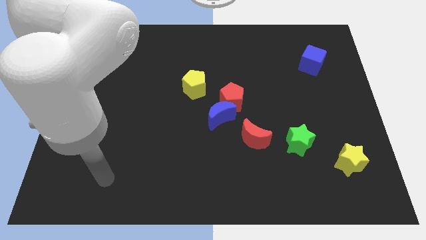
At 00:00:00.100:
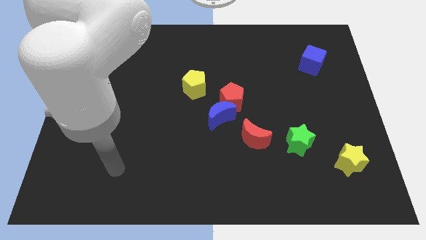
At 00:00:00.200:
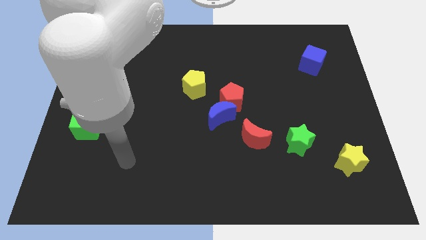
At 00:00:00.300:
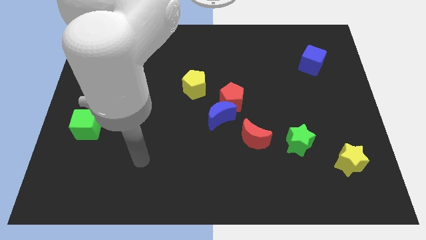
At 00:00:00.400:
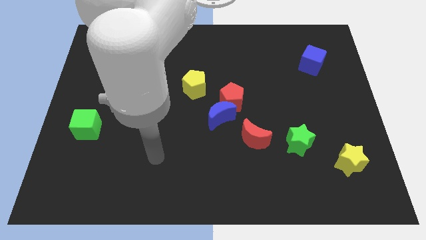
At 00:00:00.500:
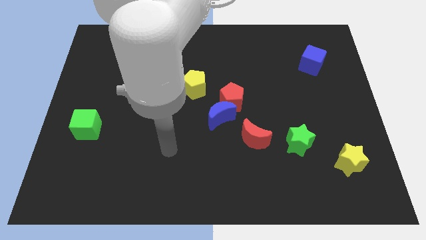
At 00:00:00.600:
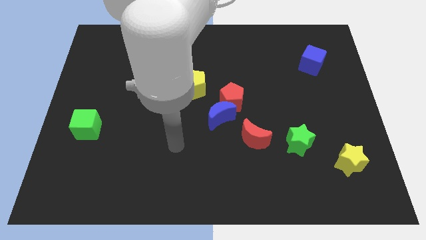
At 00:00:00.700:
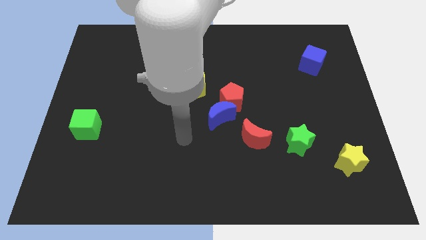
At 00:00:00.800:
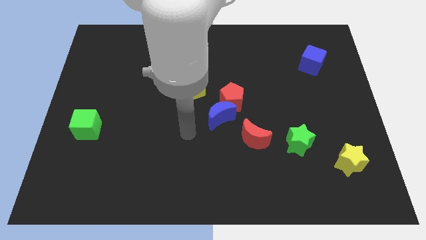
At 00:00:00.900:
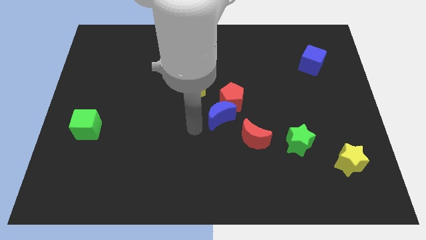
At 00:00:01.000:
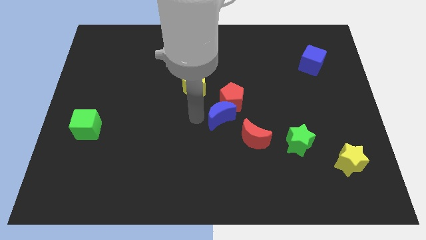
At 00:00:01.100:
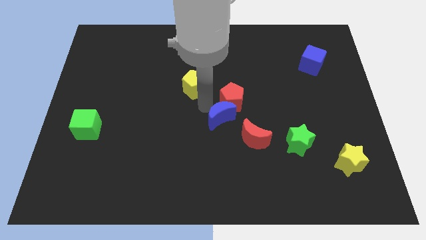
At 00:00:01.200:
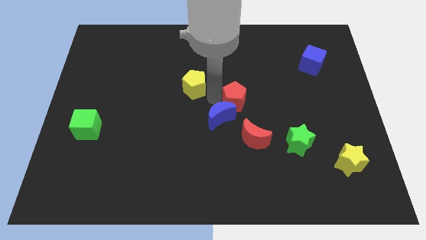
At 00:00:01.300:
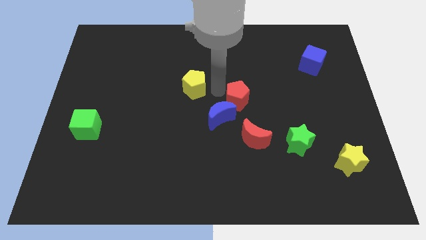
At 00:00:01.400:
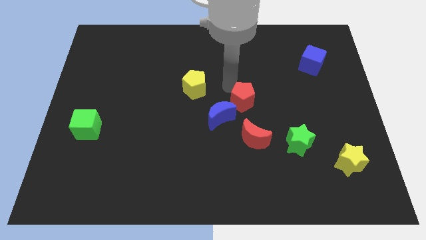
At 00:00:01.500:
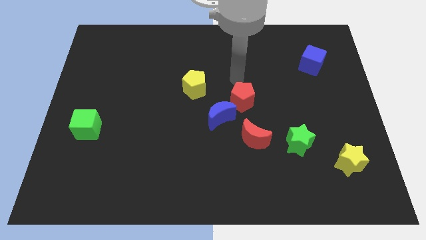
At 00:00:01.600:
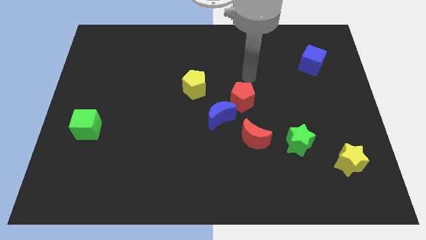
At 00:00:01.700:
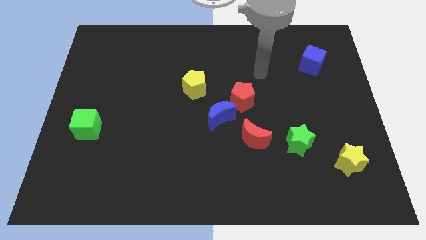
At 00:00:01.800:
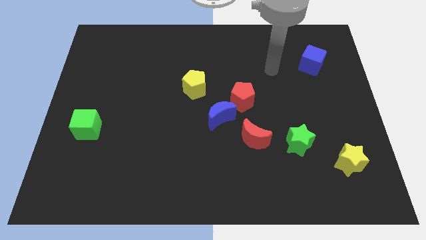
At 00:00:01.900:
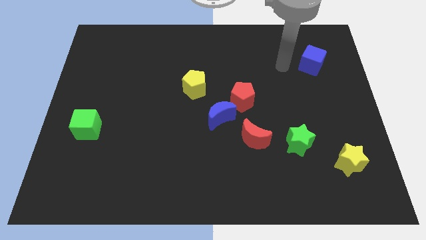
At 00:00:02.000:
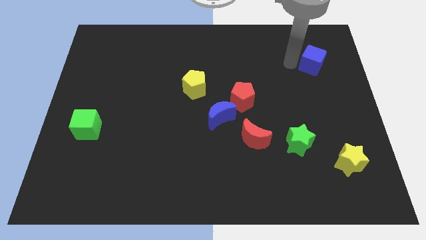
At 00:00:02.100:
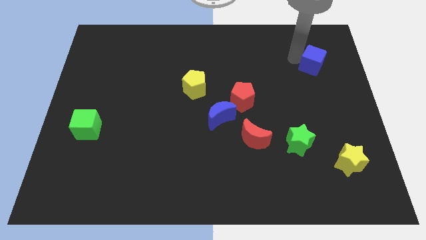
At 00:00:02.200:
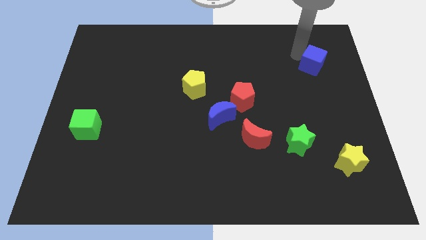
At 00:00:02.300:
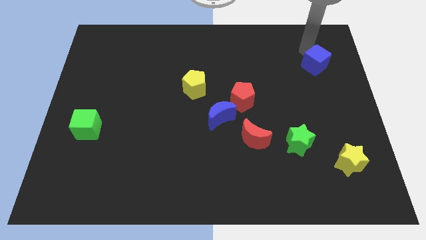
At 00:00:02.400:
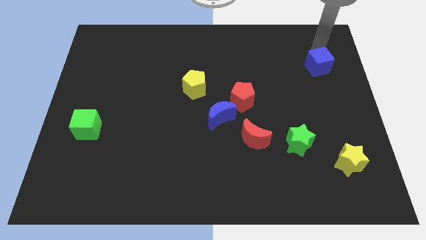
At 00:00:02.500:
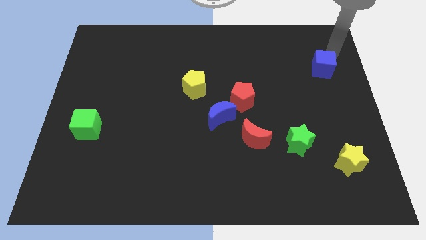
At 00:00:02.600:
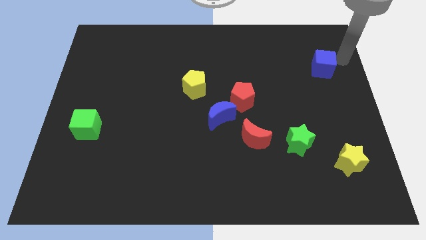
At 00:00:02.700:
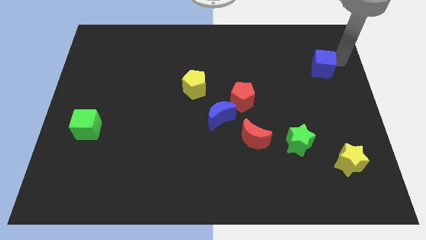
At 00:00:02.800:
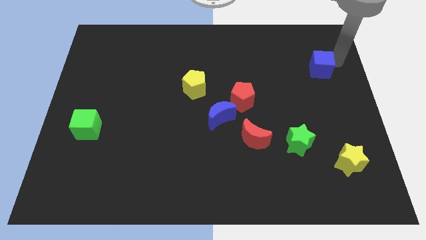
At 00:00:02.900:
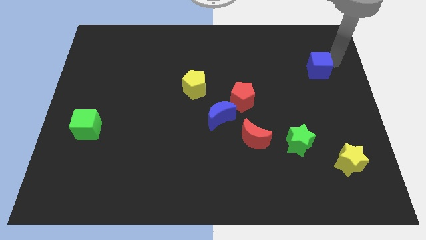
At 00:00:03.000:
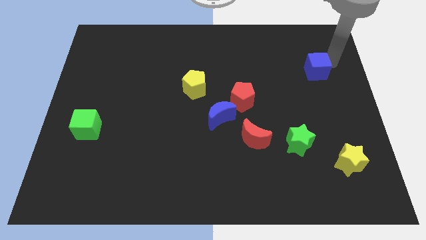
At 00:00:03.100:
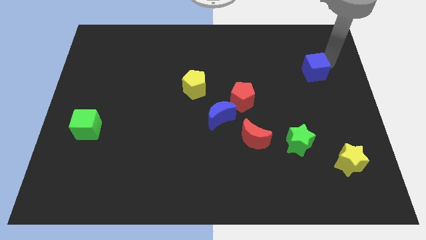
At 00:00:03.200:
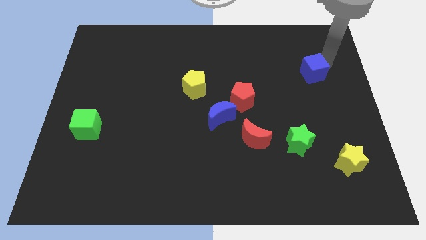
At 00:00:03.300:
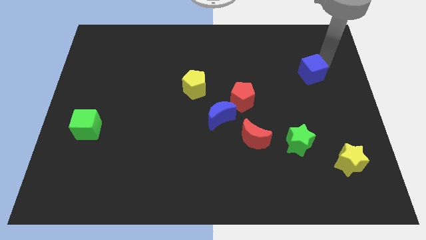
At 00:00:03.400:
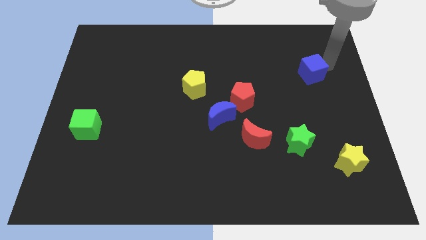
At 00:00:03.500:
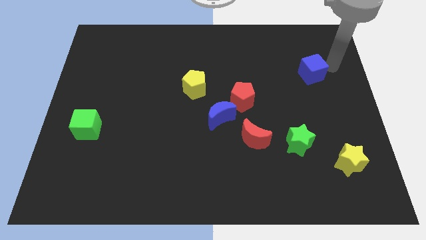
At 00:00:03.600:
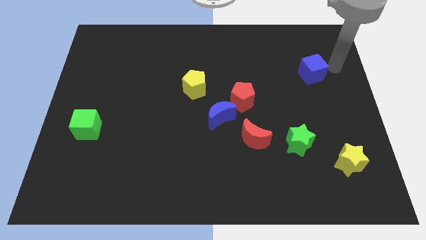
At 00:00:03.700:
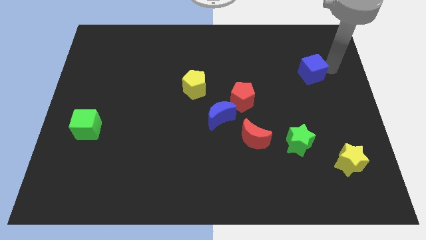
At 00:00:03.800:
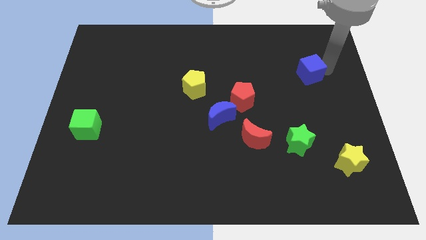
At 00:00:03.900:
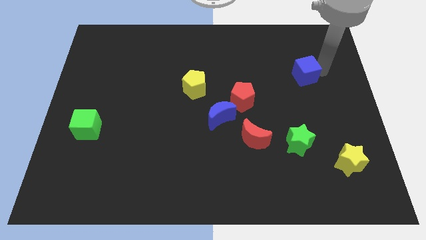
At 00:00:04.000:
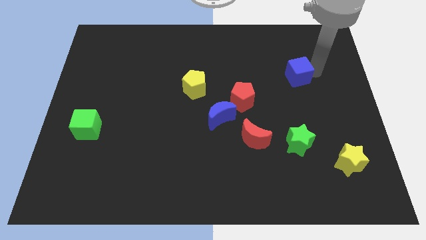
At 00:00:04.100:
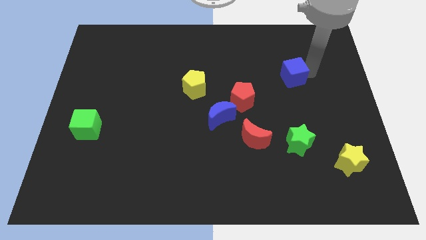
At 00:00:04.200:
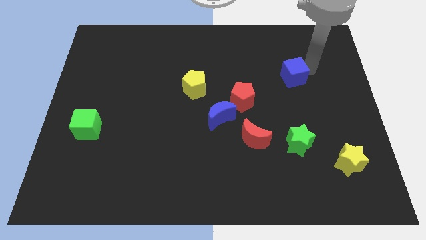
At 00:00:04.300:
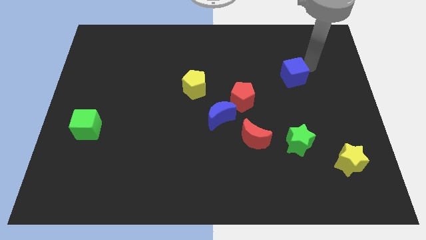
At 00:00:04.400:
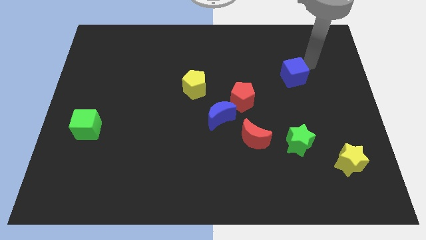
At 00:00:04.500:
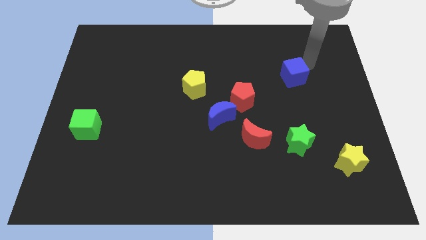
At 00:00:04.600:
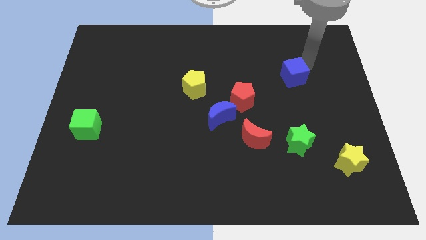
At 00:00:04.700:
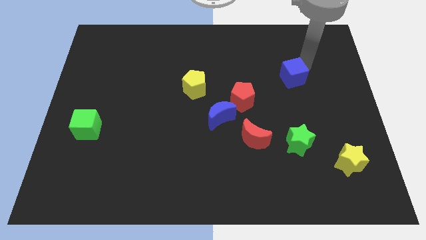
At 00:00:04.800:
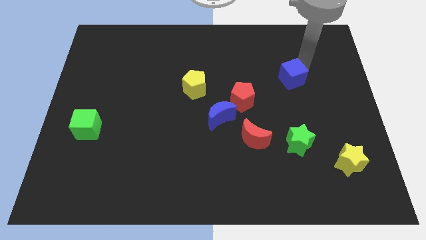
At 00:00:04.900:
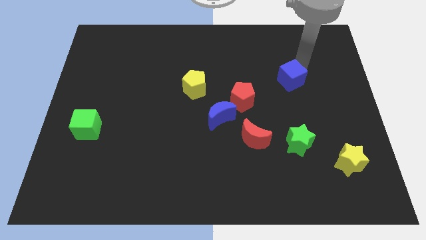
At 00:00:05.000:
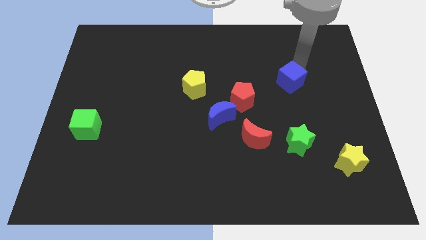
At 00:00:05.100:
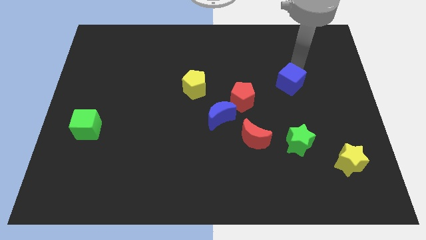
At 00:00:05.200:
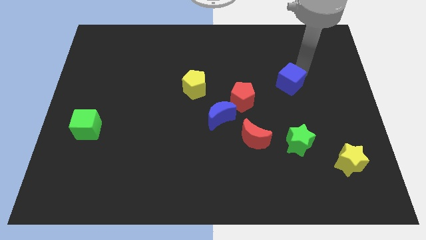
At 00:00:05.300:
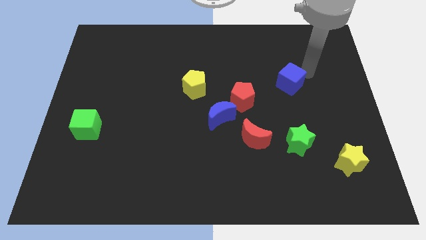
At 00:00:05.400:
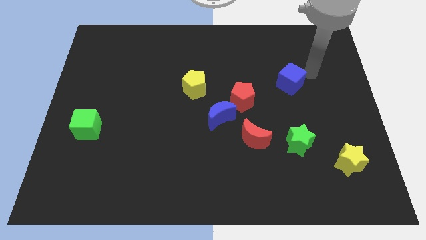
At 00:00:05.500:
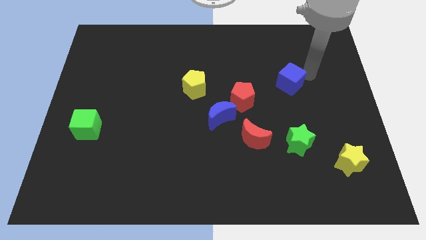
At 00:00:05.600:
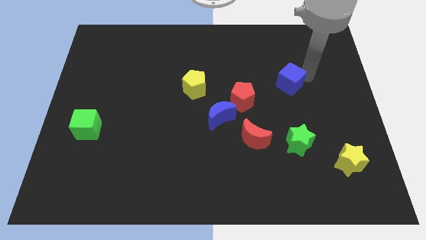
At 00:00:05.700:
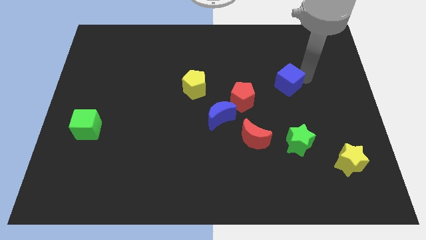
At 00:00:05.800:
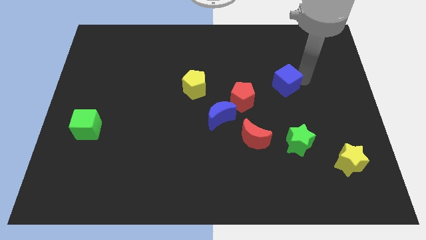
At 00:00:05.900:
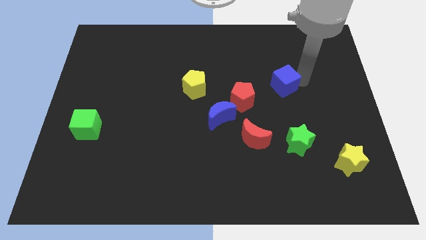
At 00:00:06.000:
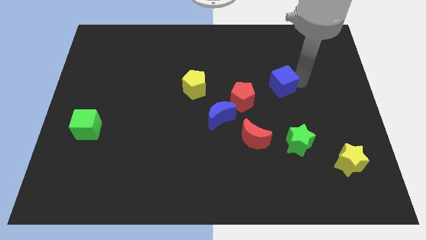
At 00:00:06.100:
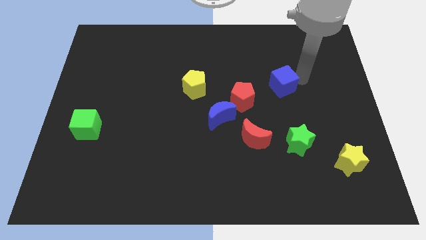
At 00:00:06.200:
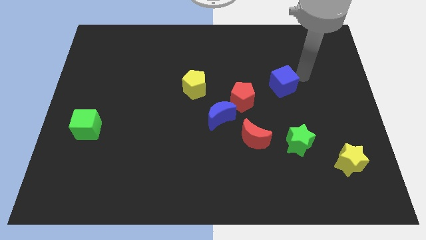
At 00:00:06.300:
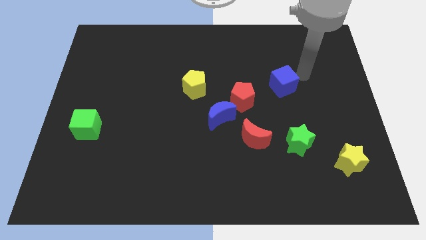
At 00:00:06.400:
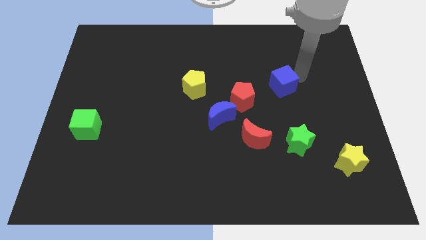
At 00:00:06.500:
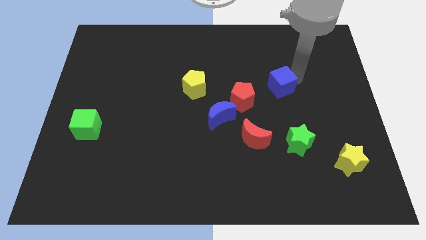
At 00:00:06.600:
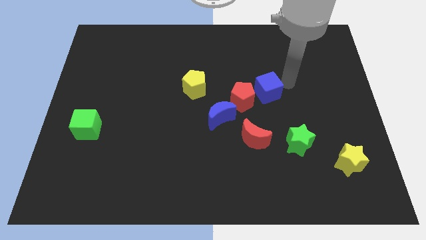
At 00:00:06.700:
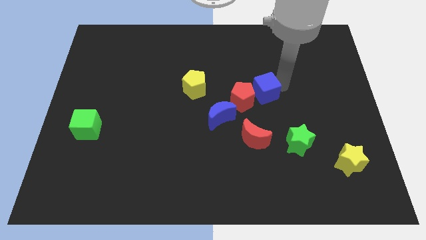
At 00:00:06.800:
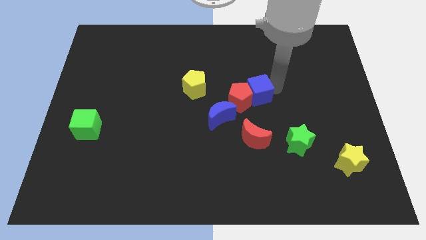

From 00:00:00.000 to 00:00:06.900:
slide the blue cube towards the red pentagon
